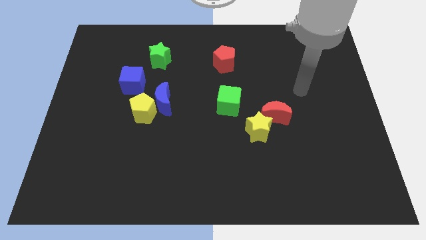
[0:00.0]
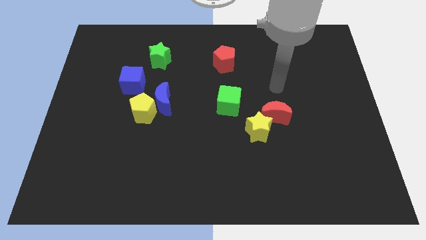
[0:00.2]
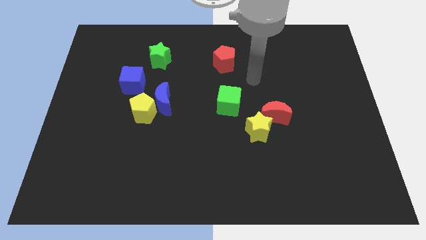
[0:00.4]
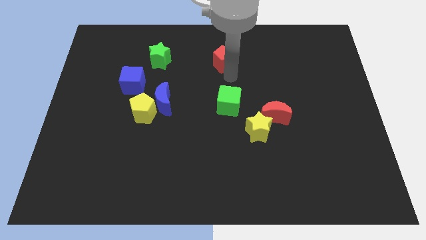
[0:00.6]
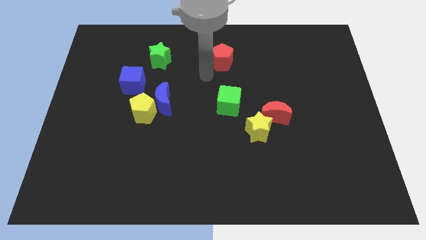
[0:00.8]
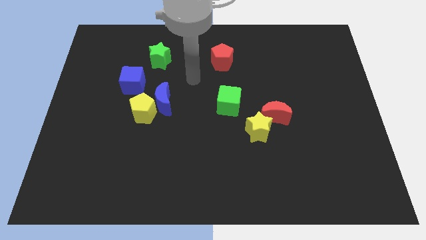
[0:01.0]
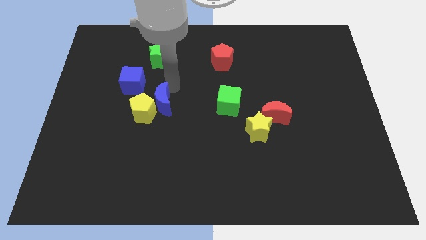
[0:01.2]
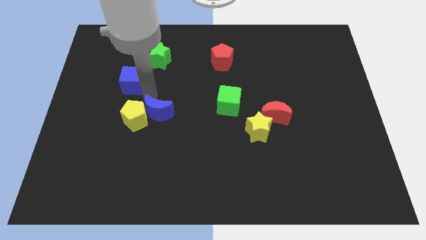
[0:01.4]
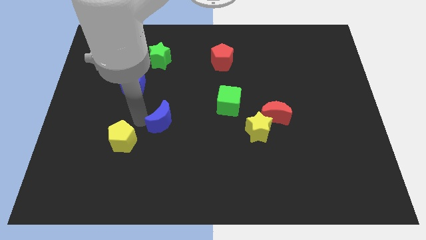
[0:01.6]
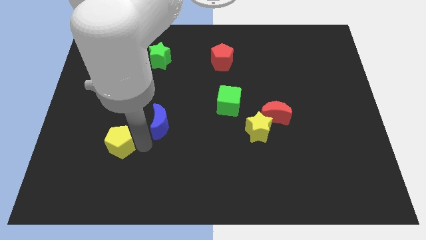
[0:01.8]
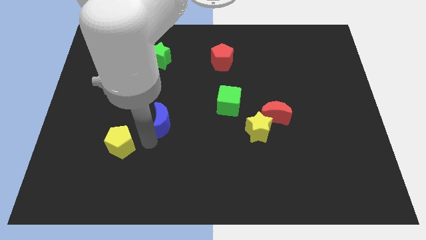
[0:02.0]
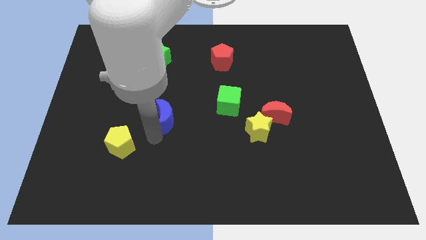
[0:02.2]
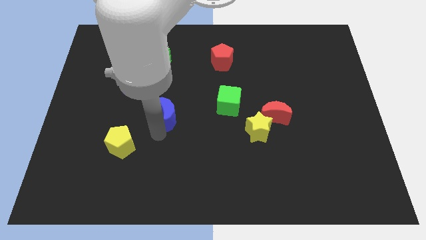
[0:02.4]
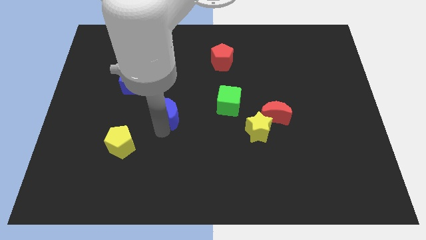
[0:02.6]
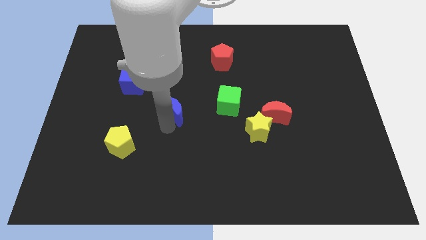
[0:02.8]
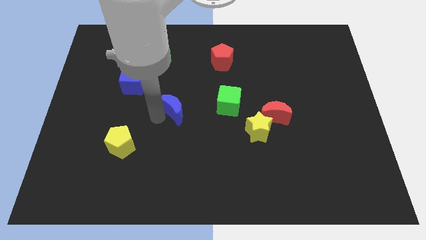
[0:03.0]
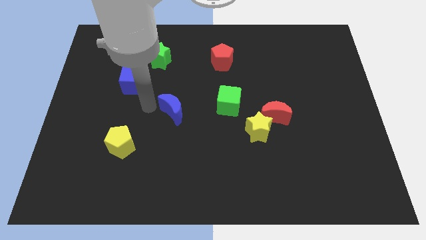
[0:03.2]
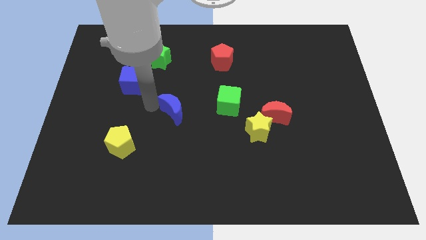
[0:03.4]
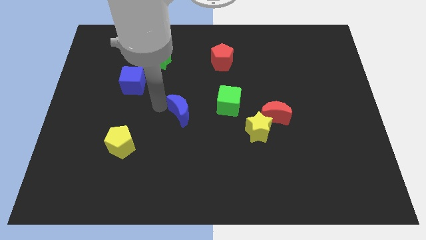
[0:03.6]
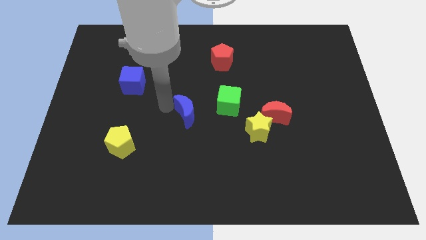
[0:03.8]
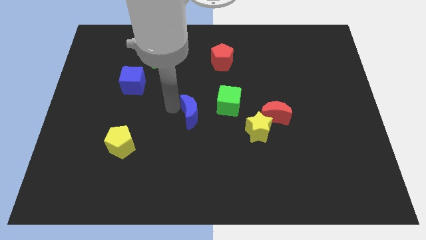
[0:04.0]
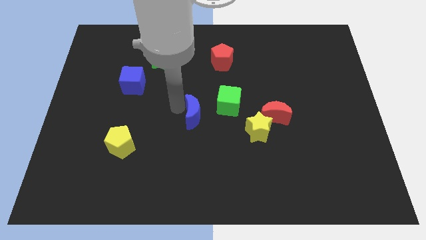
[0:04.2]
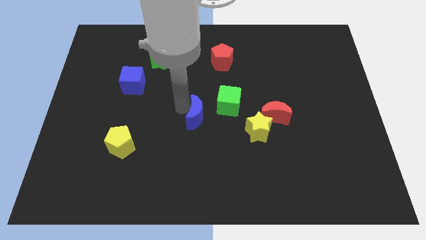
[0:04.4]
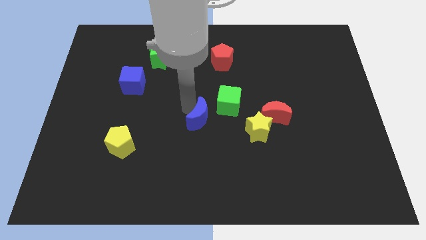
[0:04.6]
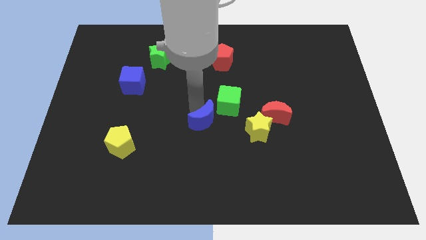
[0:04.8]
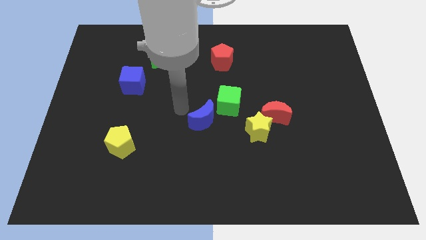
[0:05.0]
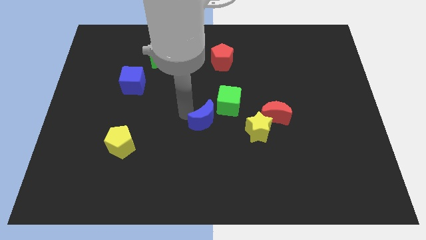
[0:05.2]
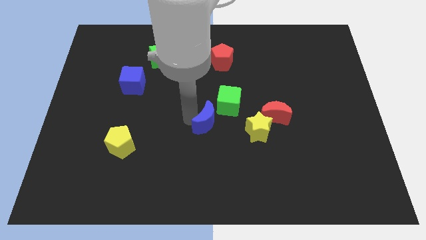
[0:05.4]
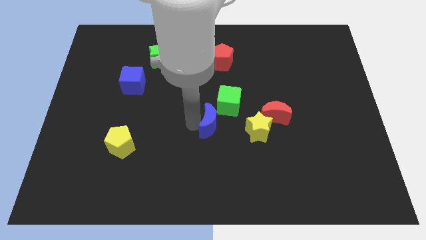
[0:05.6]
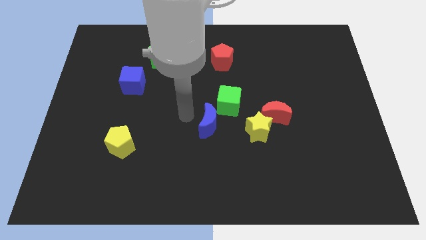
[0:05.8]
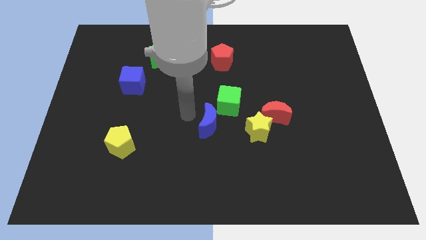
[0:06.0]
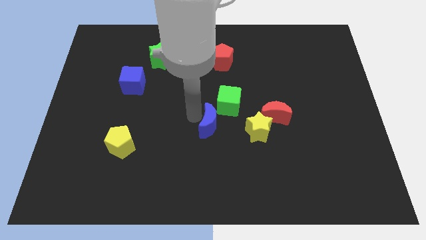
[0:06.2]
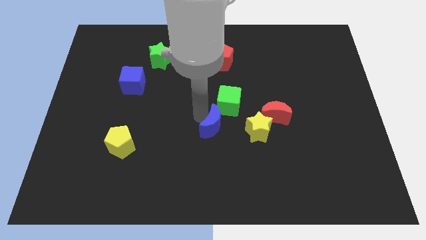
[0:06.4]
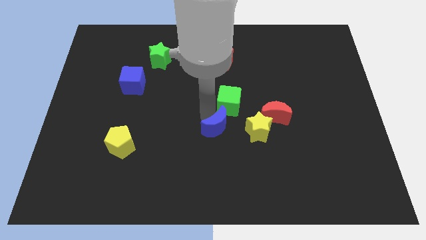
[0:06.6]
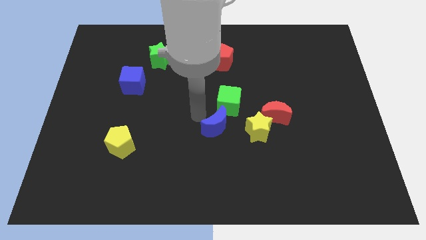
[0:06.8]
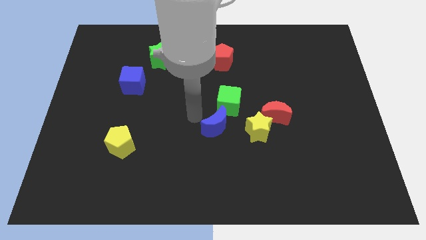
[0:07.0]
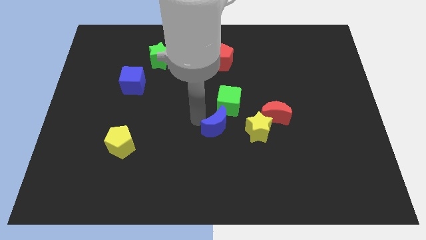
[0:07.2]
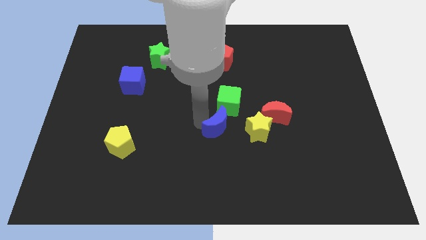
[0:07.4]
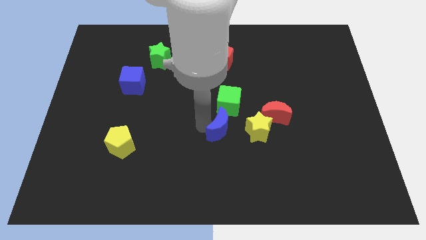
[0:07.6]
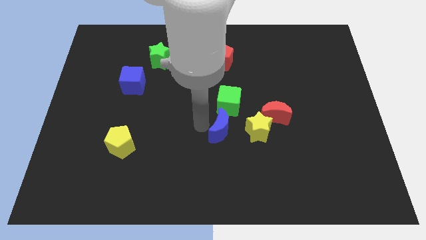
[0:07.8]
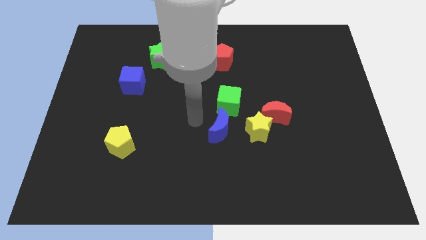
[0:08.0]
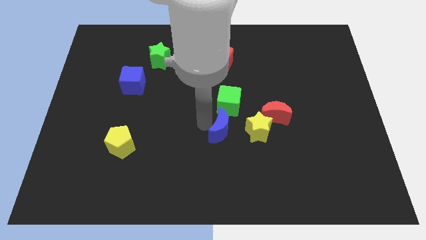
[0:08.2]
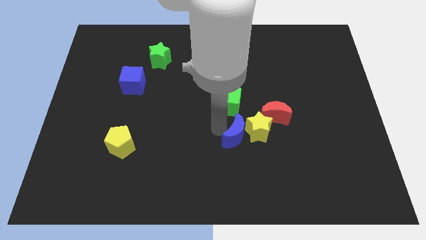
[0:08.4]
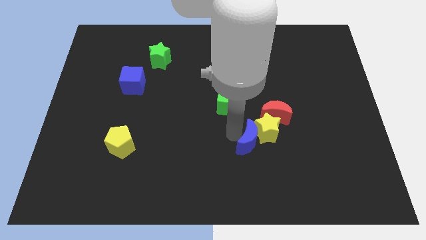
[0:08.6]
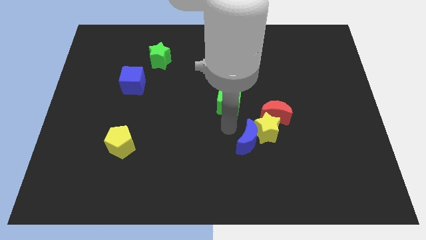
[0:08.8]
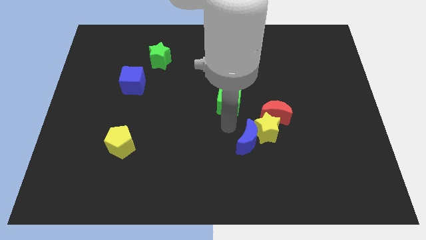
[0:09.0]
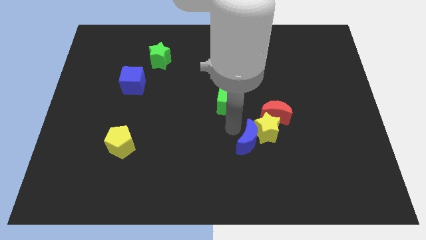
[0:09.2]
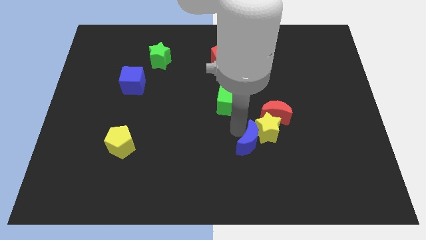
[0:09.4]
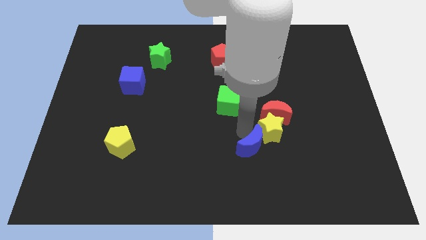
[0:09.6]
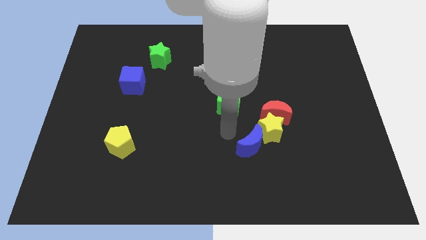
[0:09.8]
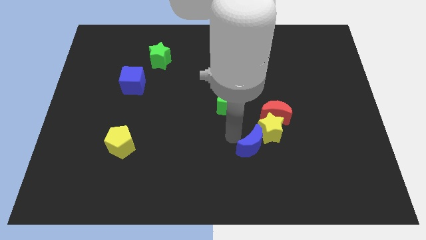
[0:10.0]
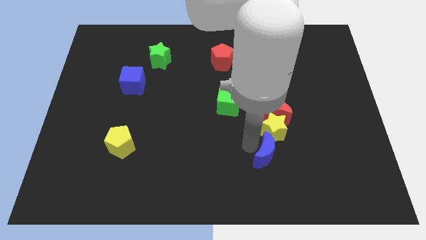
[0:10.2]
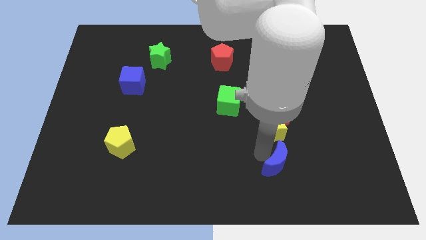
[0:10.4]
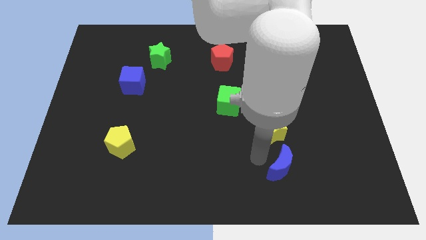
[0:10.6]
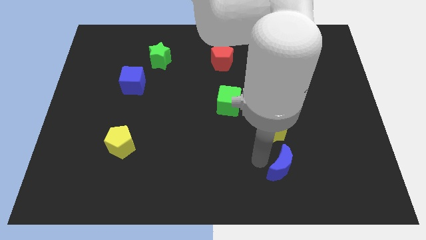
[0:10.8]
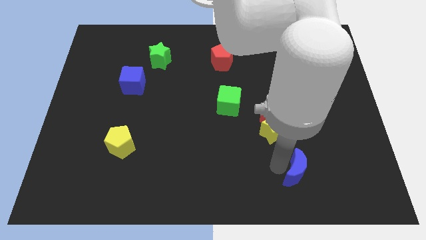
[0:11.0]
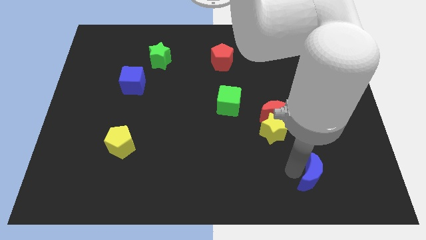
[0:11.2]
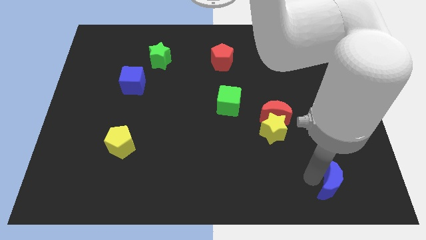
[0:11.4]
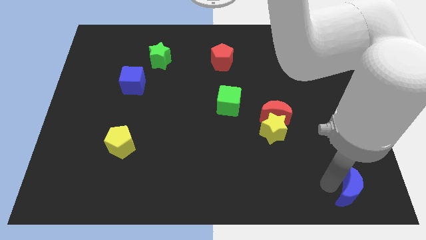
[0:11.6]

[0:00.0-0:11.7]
push the blue moon to the bottom right corner

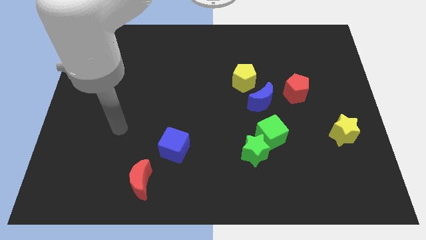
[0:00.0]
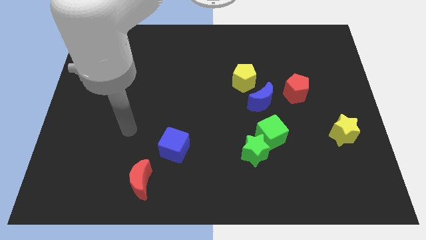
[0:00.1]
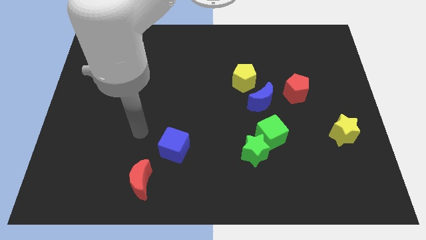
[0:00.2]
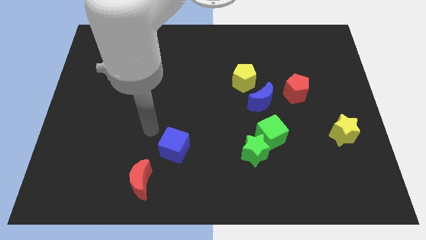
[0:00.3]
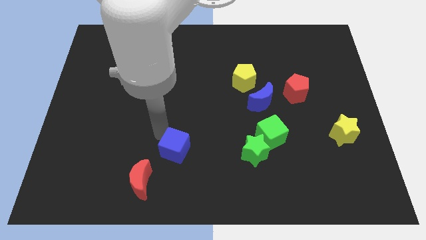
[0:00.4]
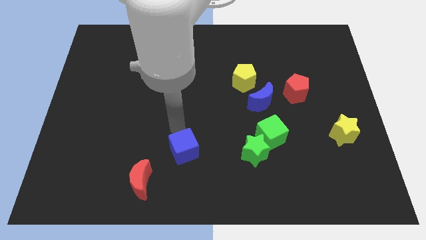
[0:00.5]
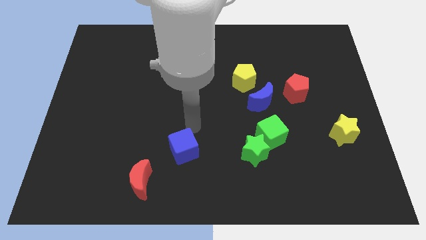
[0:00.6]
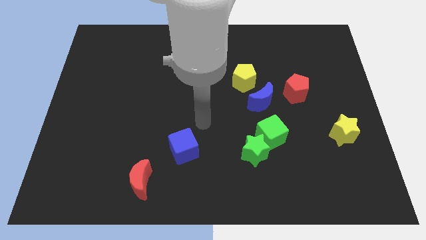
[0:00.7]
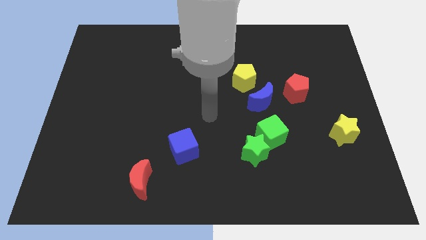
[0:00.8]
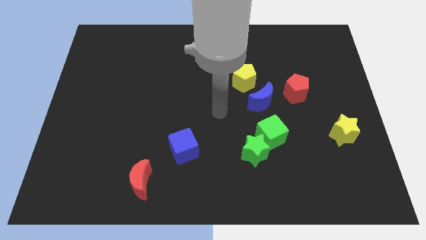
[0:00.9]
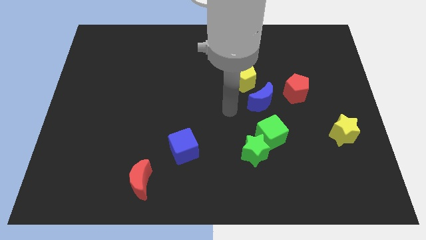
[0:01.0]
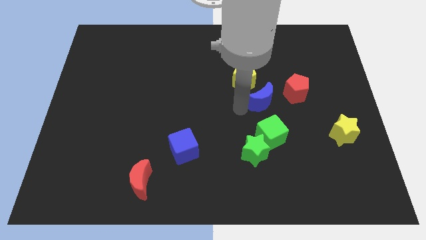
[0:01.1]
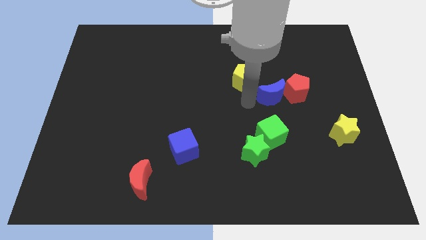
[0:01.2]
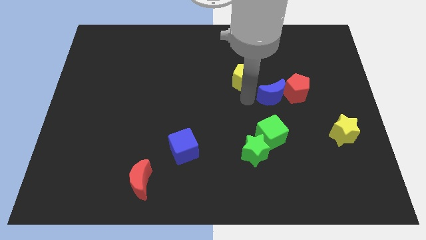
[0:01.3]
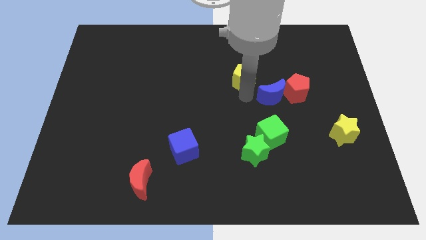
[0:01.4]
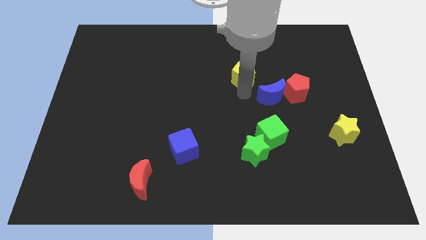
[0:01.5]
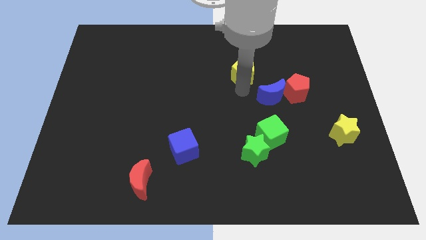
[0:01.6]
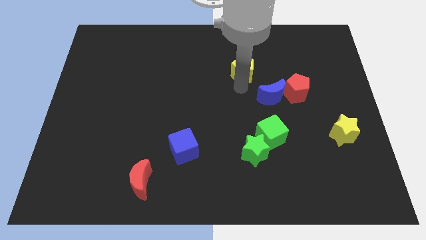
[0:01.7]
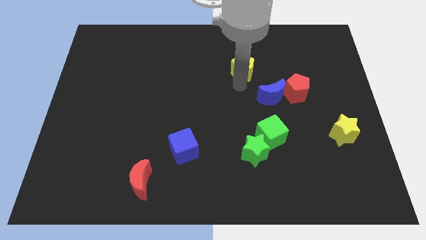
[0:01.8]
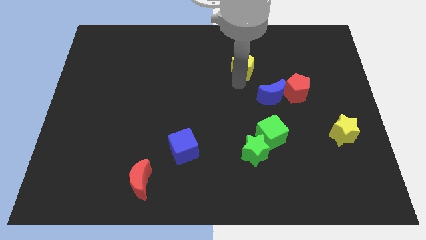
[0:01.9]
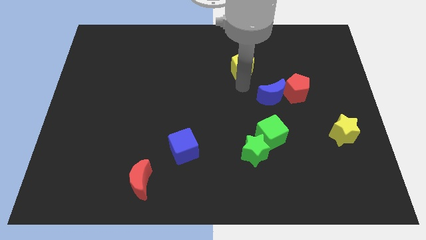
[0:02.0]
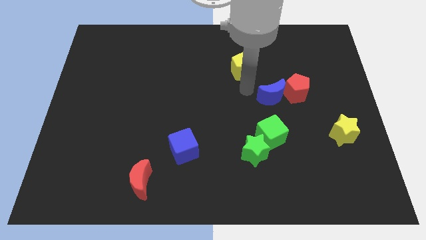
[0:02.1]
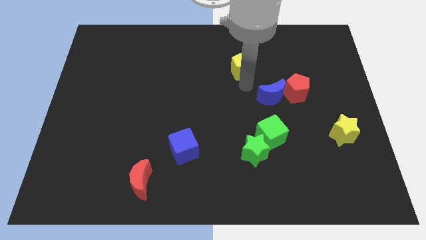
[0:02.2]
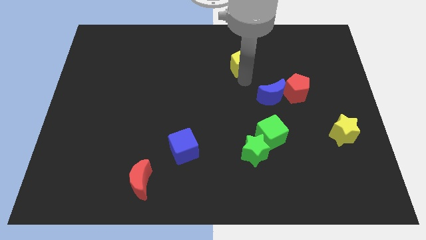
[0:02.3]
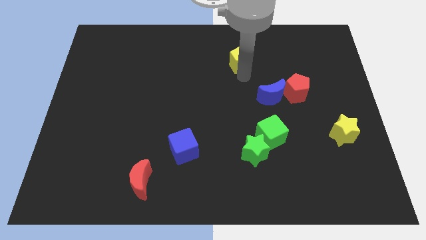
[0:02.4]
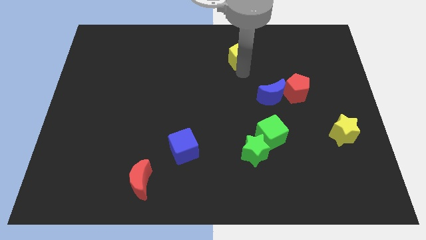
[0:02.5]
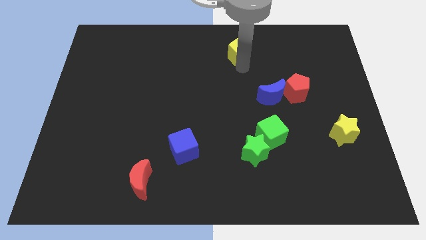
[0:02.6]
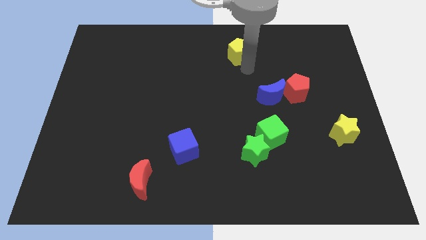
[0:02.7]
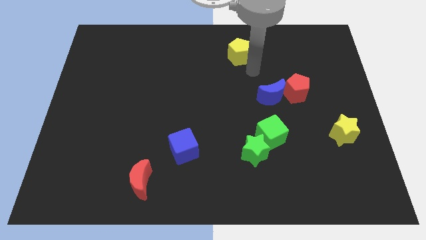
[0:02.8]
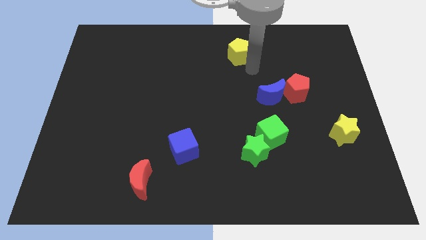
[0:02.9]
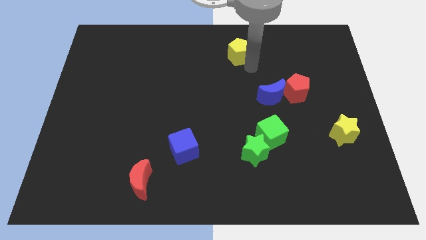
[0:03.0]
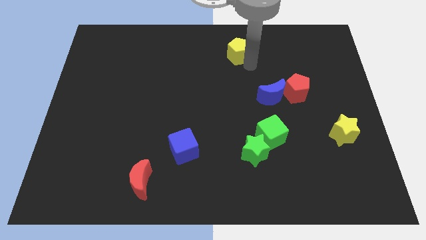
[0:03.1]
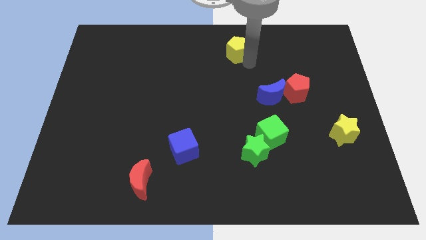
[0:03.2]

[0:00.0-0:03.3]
put the yellow pentagon to the top side
